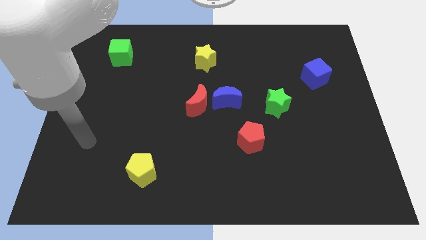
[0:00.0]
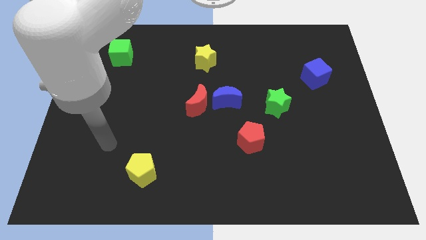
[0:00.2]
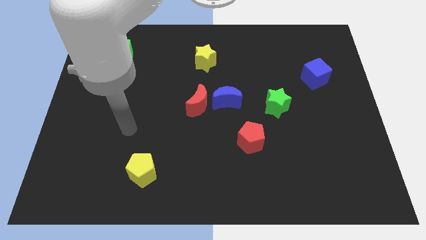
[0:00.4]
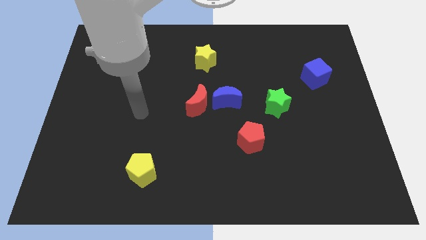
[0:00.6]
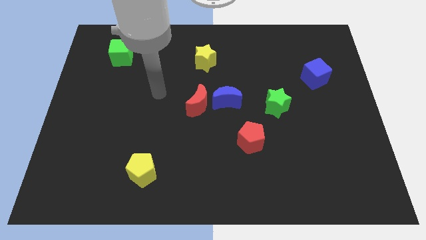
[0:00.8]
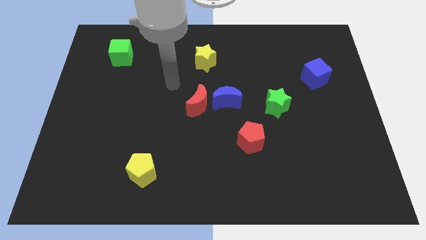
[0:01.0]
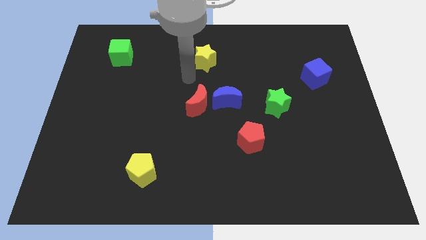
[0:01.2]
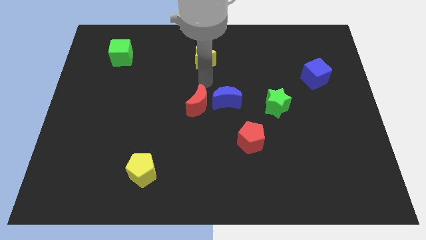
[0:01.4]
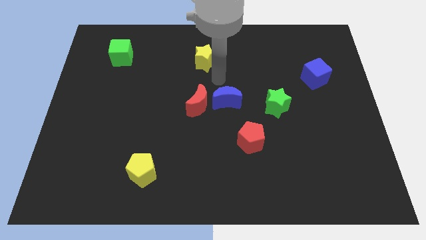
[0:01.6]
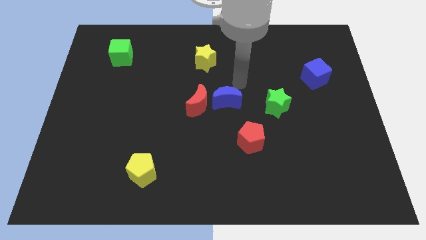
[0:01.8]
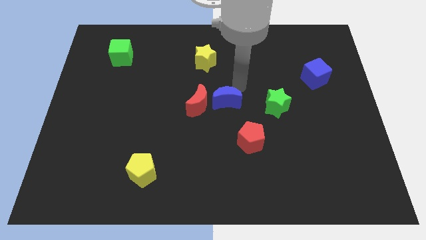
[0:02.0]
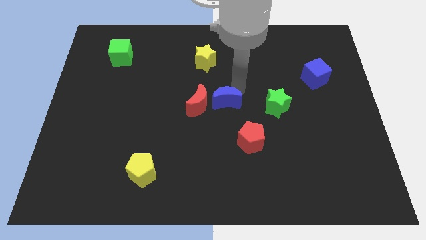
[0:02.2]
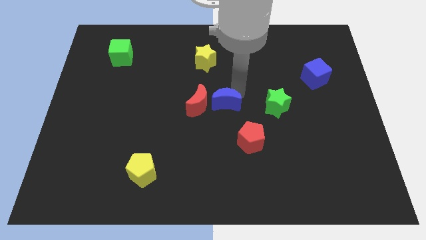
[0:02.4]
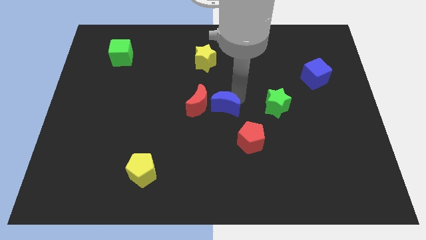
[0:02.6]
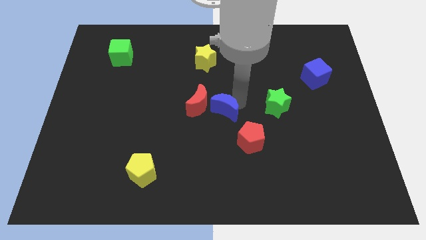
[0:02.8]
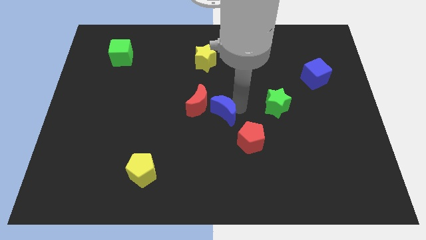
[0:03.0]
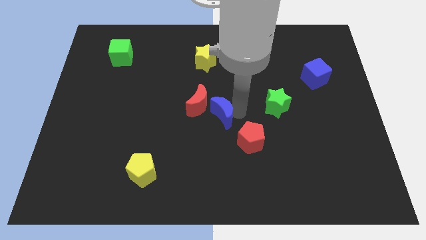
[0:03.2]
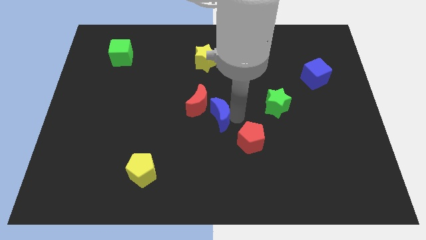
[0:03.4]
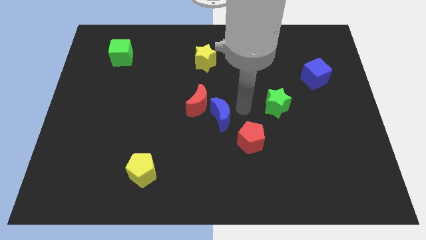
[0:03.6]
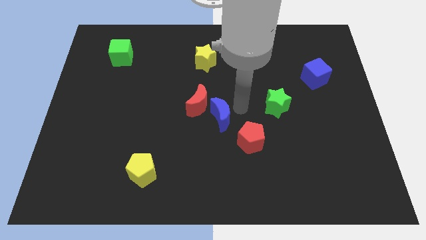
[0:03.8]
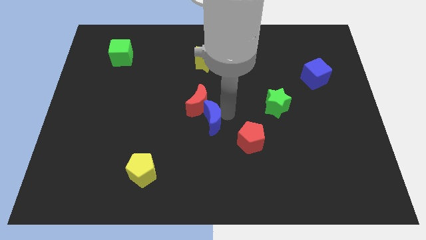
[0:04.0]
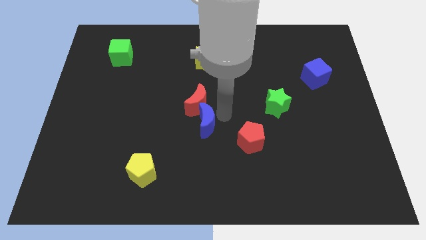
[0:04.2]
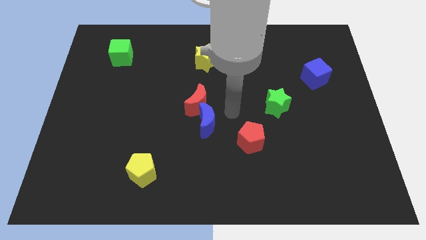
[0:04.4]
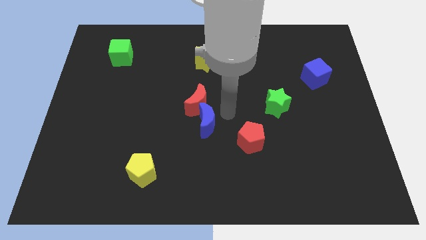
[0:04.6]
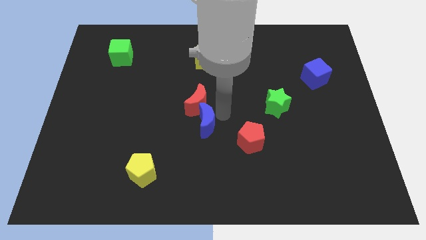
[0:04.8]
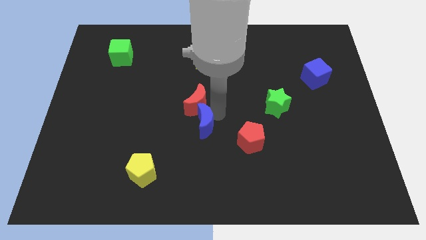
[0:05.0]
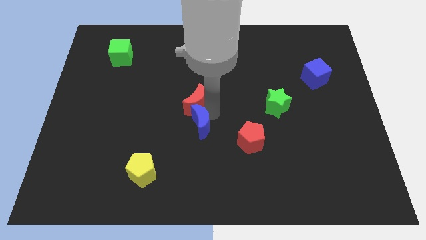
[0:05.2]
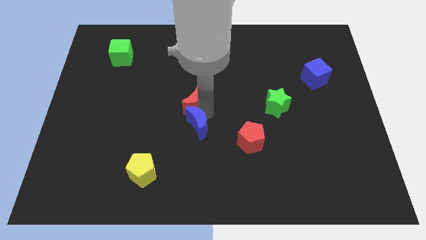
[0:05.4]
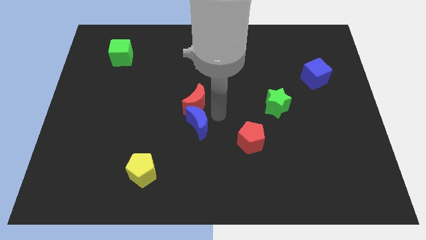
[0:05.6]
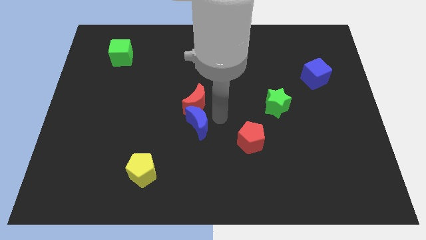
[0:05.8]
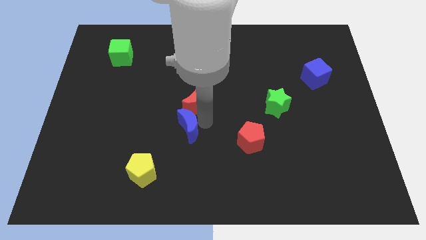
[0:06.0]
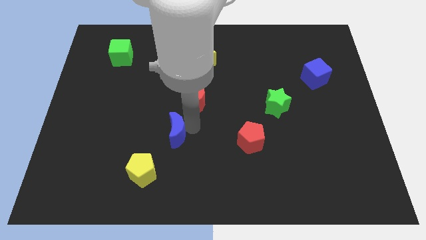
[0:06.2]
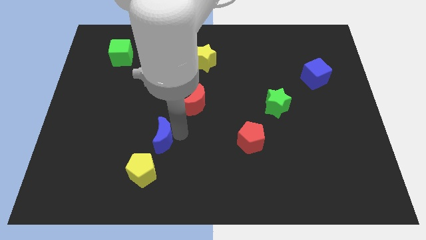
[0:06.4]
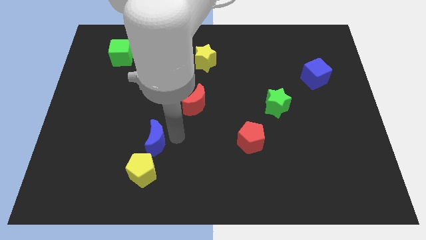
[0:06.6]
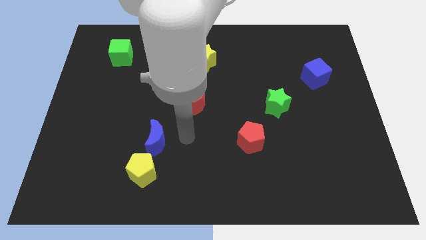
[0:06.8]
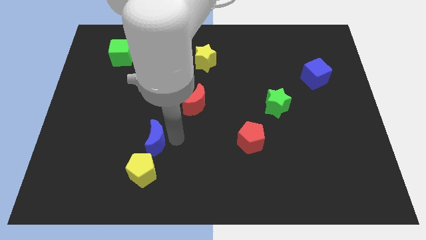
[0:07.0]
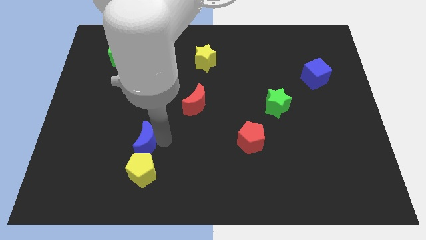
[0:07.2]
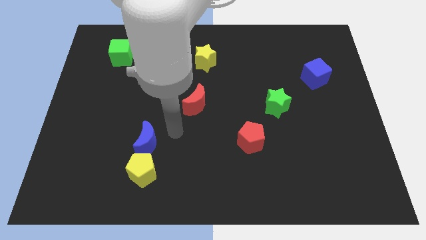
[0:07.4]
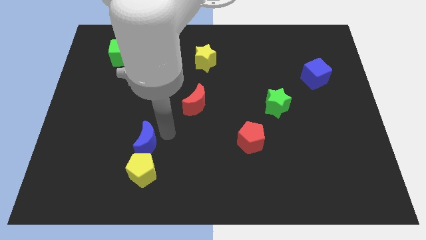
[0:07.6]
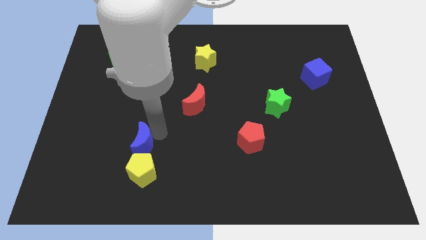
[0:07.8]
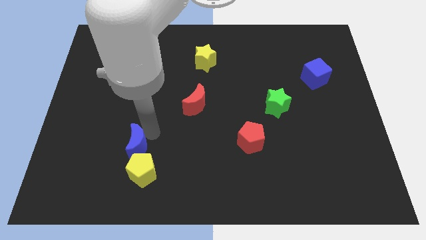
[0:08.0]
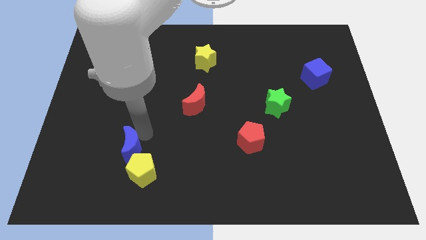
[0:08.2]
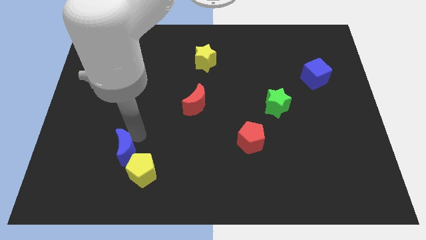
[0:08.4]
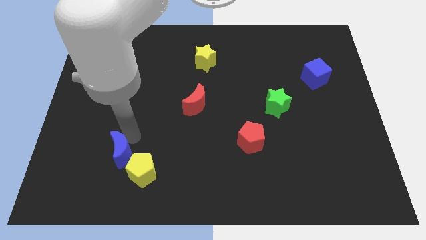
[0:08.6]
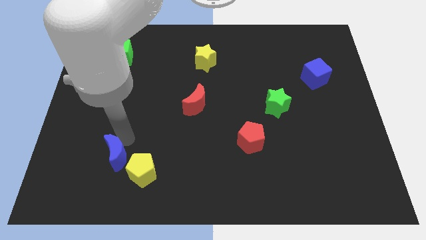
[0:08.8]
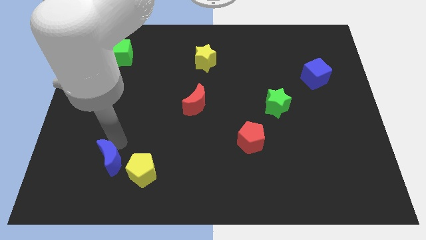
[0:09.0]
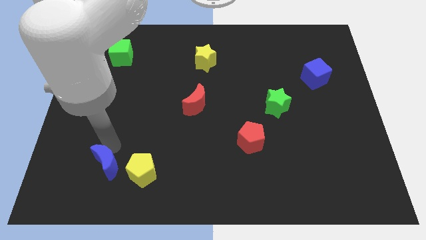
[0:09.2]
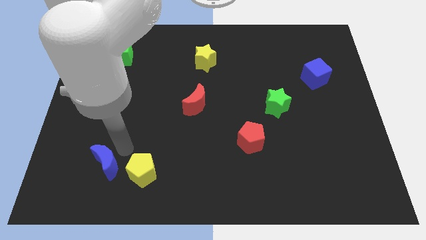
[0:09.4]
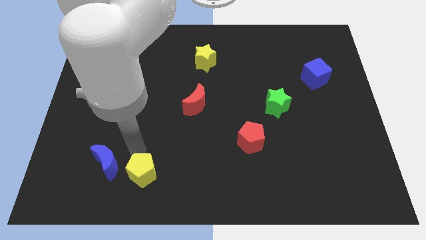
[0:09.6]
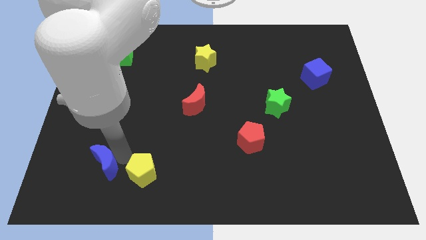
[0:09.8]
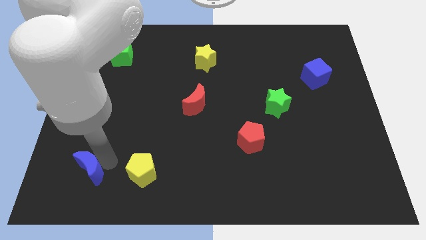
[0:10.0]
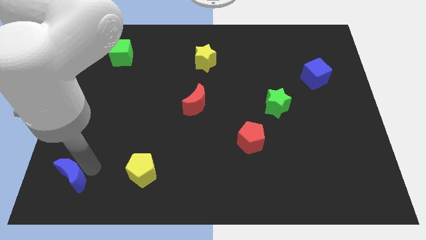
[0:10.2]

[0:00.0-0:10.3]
move the blue moon to the lower left corner

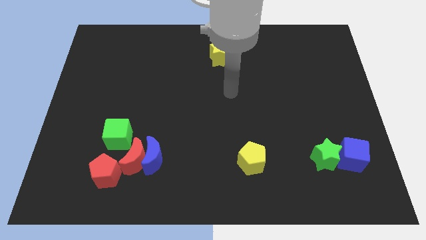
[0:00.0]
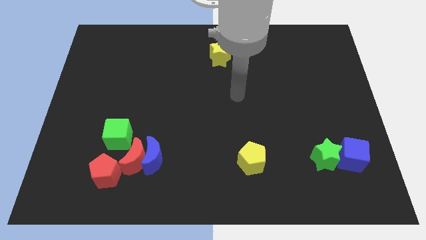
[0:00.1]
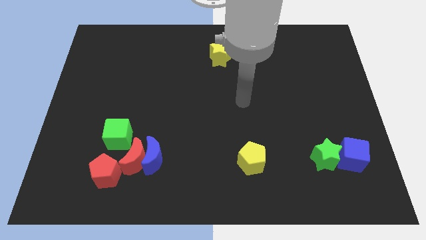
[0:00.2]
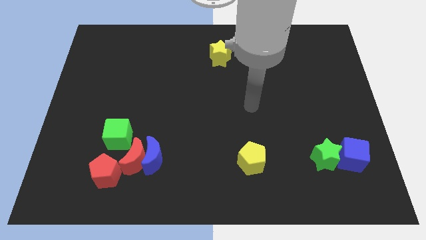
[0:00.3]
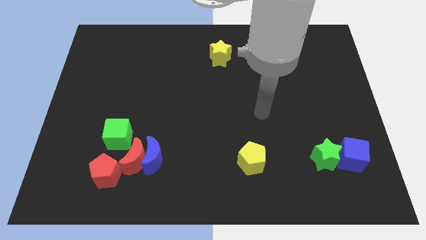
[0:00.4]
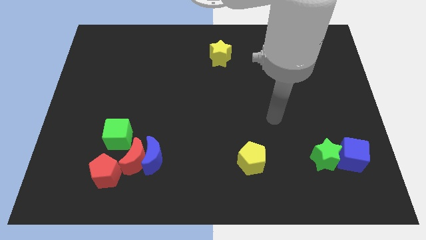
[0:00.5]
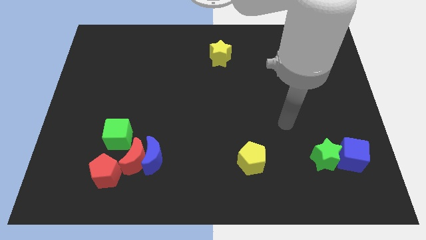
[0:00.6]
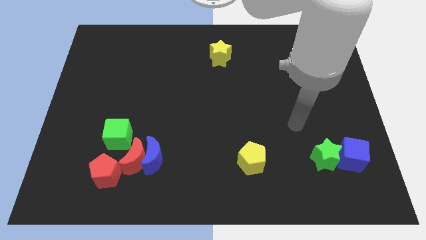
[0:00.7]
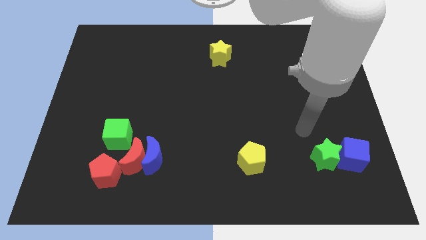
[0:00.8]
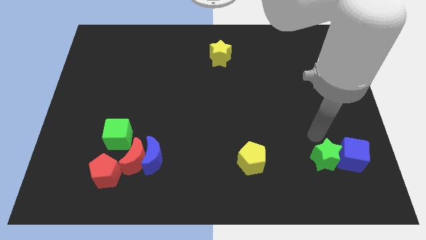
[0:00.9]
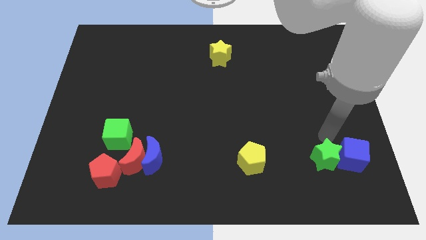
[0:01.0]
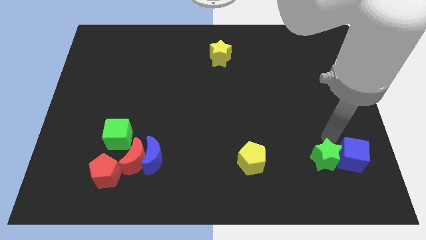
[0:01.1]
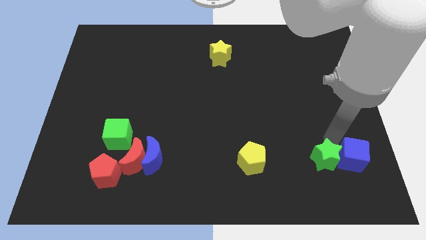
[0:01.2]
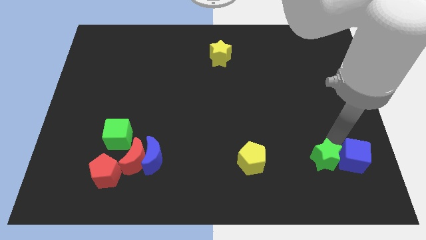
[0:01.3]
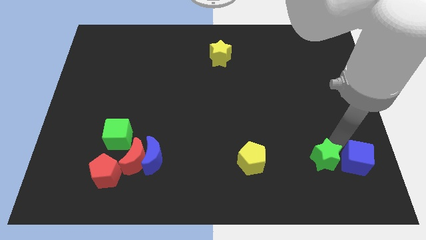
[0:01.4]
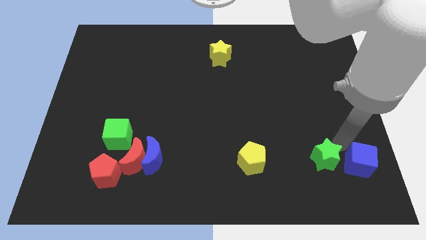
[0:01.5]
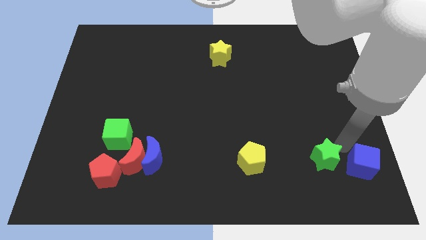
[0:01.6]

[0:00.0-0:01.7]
put the blue cube to the bottom right of the board

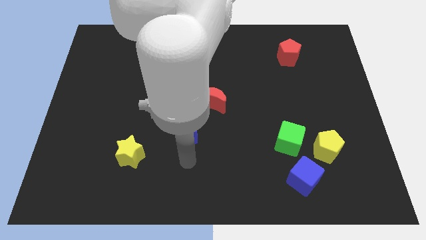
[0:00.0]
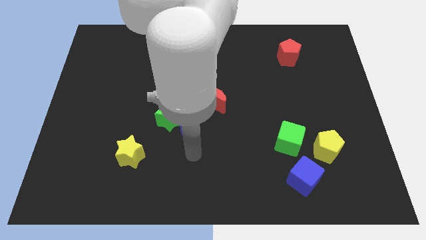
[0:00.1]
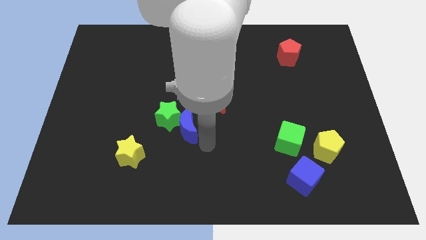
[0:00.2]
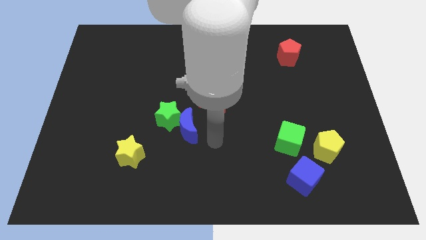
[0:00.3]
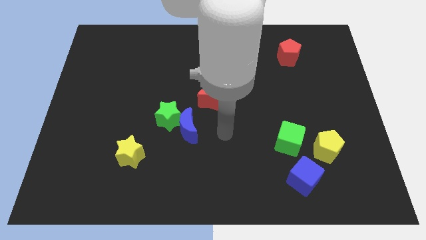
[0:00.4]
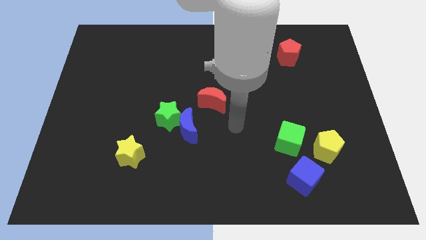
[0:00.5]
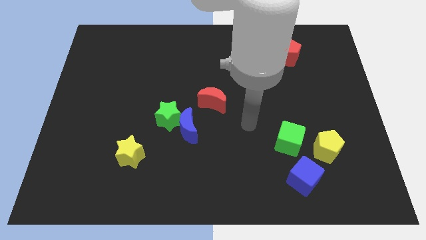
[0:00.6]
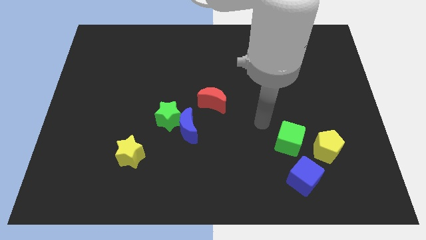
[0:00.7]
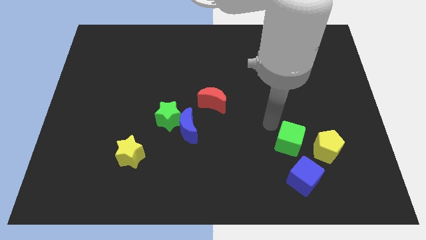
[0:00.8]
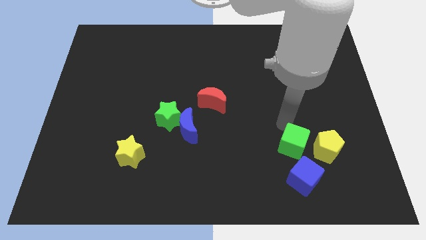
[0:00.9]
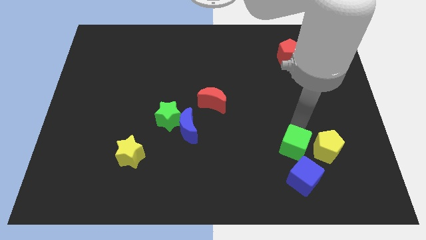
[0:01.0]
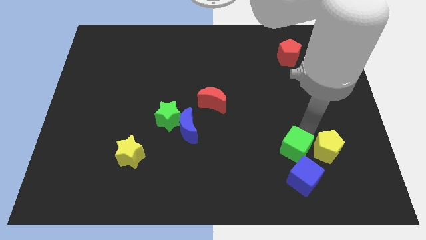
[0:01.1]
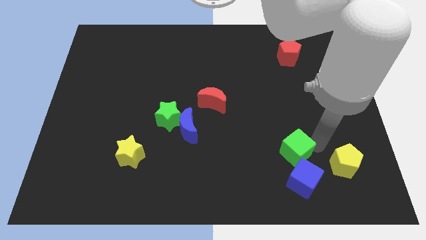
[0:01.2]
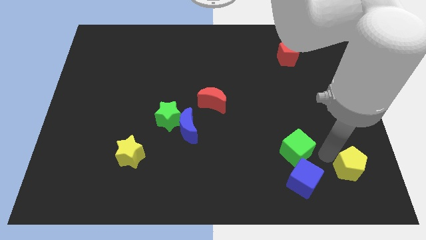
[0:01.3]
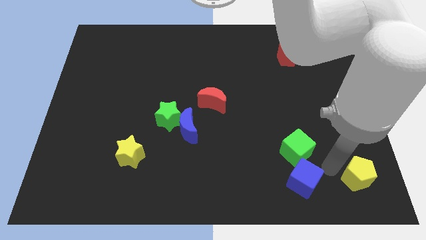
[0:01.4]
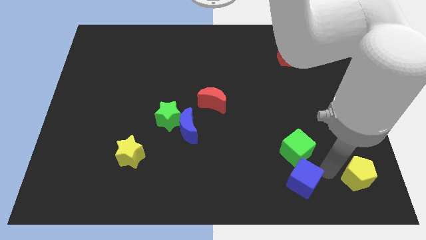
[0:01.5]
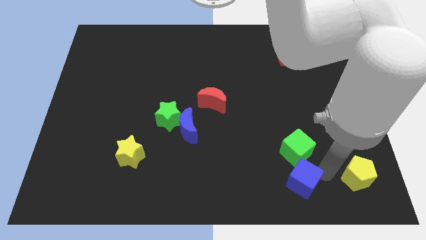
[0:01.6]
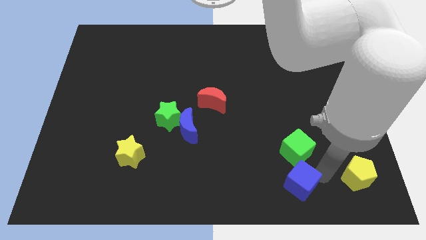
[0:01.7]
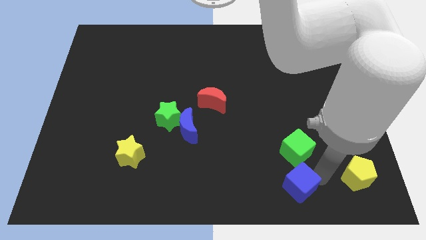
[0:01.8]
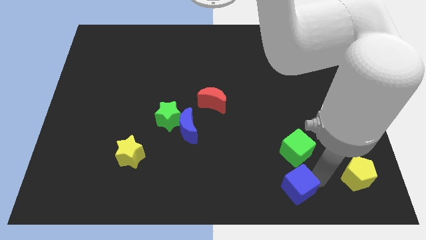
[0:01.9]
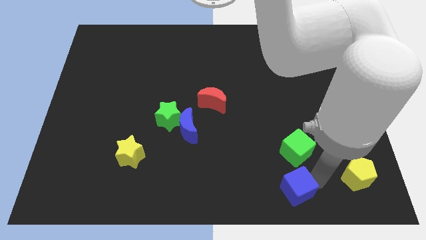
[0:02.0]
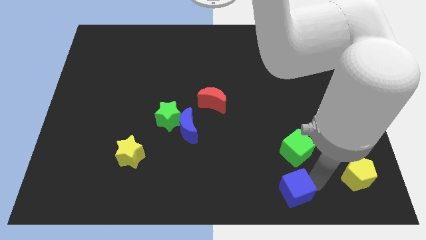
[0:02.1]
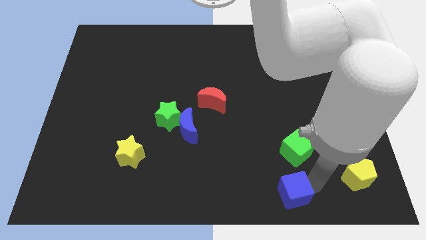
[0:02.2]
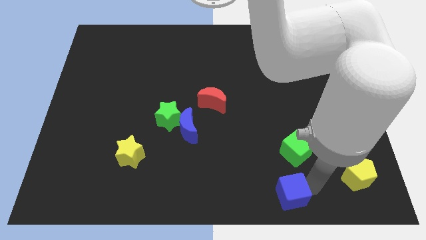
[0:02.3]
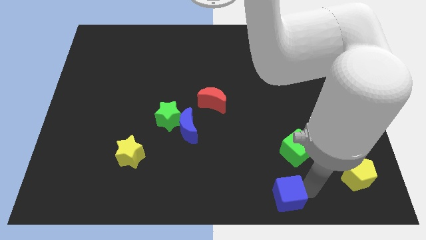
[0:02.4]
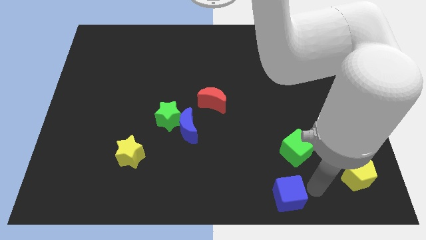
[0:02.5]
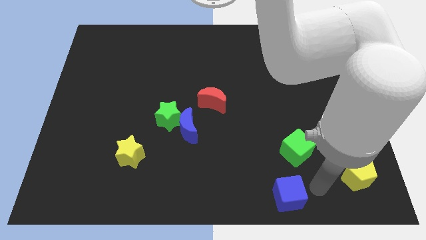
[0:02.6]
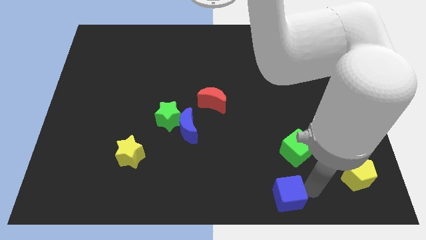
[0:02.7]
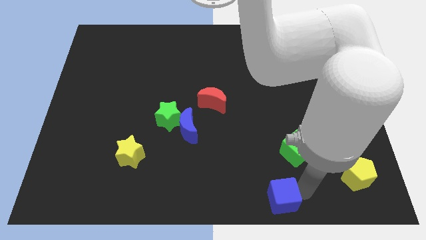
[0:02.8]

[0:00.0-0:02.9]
move the blue cube to the bottom
